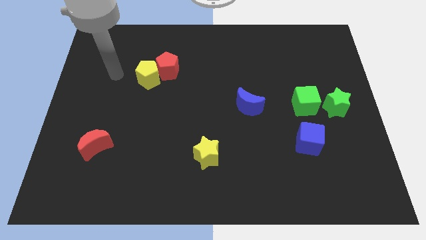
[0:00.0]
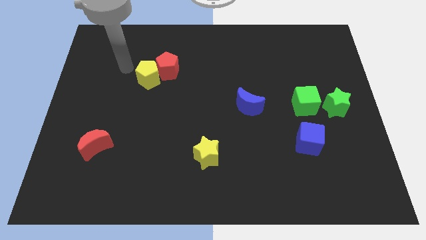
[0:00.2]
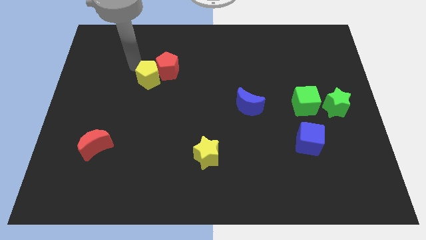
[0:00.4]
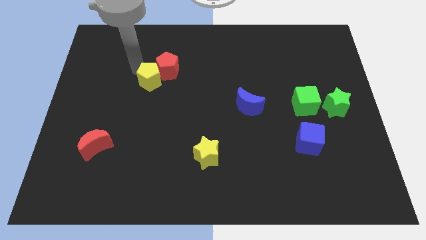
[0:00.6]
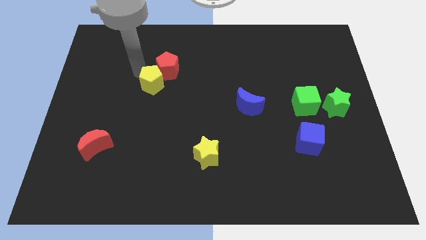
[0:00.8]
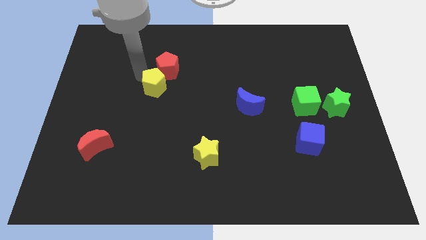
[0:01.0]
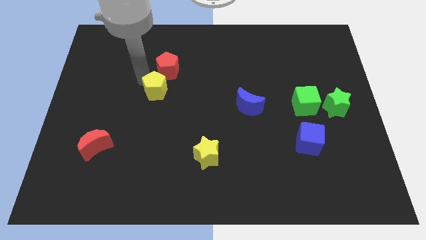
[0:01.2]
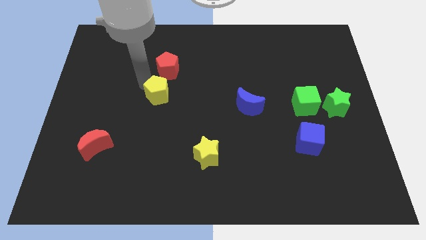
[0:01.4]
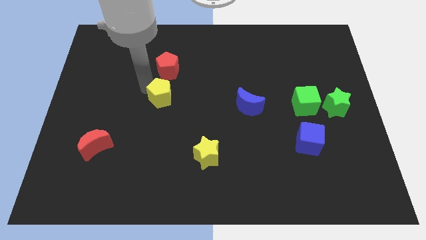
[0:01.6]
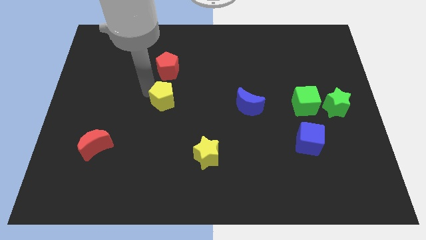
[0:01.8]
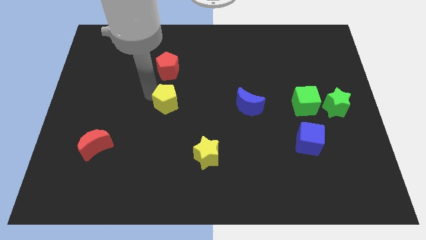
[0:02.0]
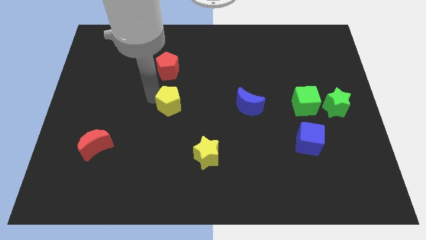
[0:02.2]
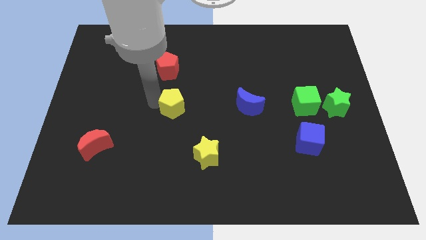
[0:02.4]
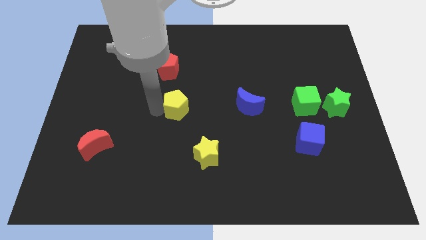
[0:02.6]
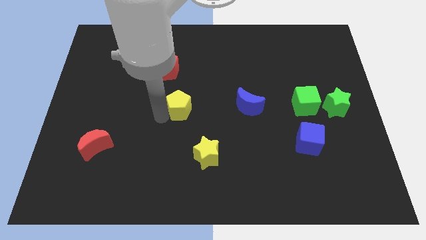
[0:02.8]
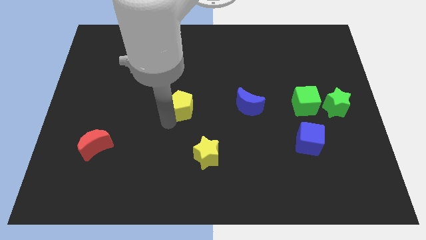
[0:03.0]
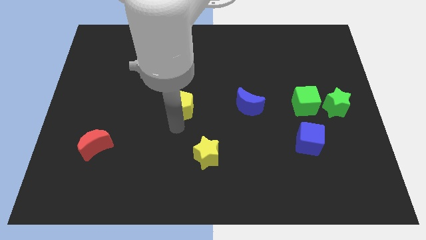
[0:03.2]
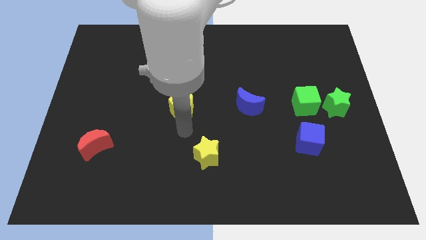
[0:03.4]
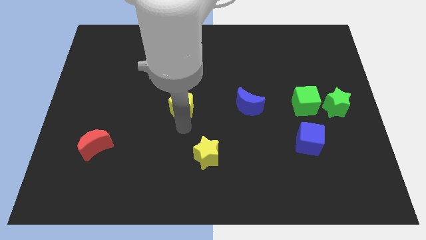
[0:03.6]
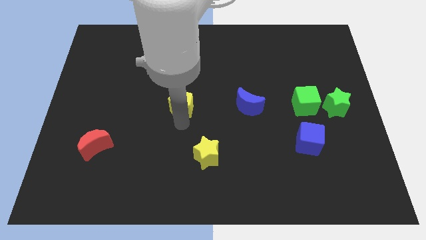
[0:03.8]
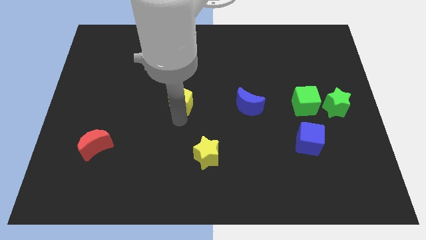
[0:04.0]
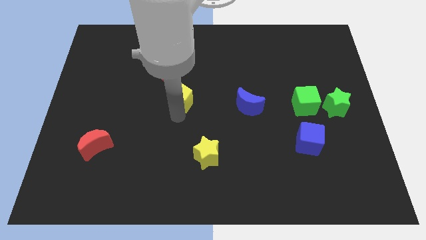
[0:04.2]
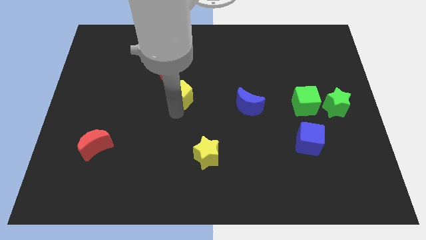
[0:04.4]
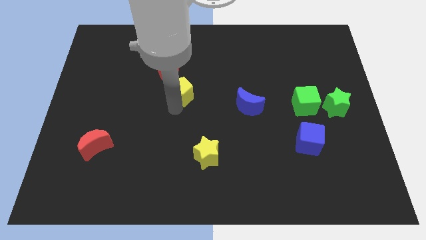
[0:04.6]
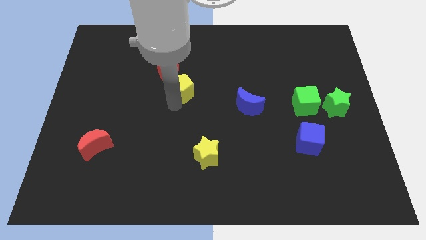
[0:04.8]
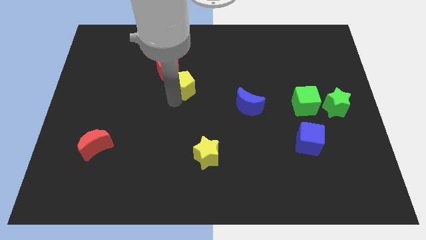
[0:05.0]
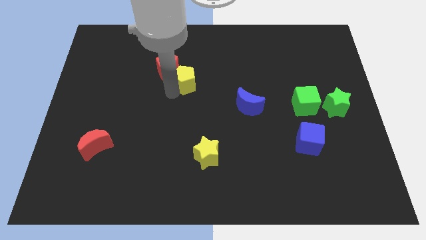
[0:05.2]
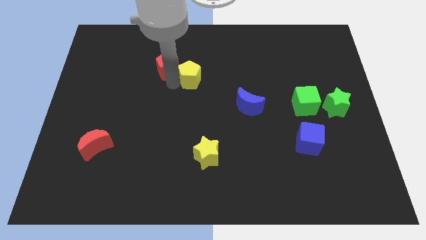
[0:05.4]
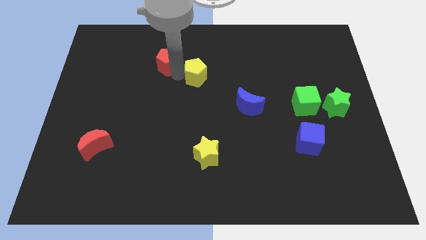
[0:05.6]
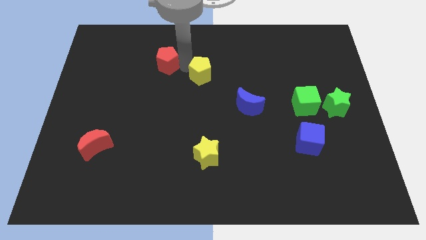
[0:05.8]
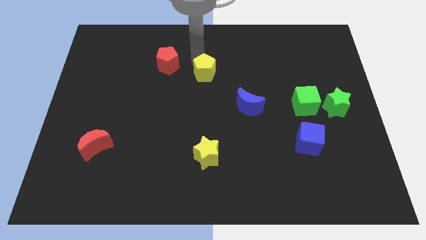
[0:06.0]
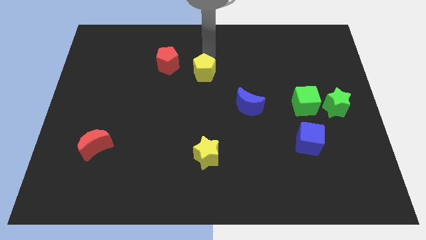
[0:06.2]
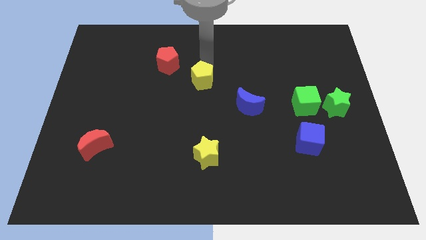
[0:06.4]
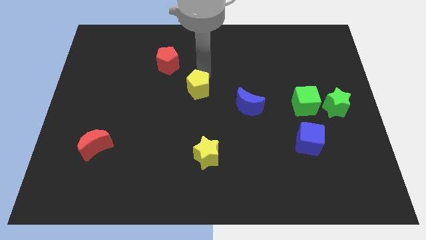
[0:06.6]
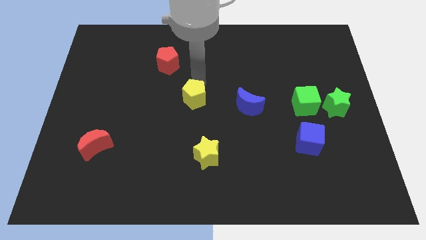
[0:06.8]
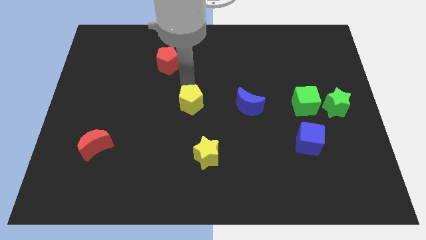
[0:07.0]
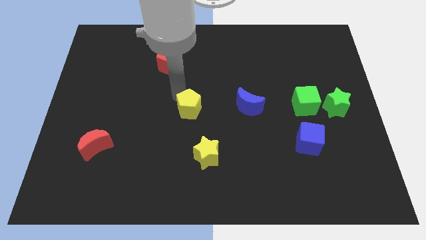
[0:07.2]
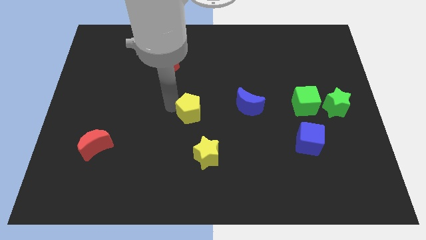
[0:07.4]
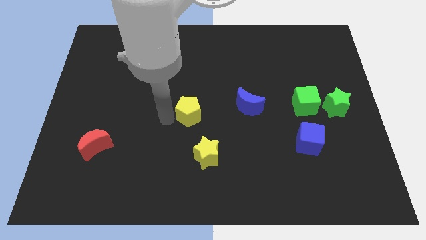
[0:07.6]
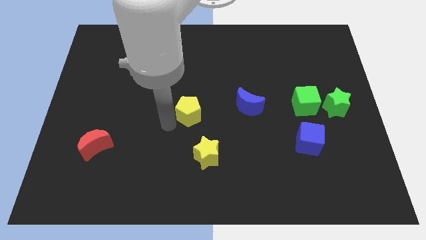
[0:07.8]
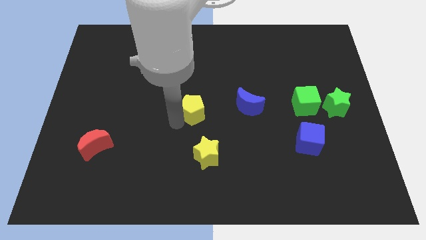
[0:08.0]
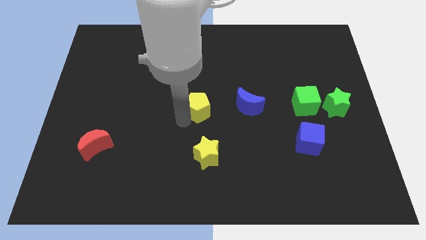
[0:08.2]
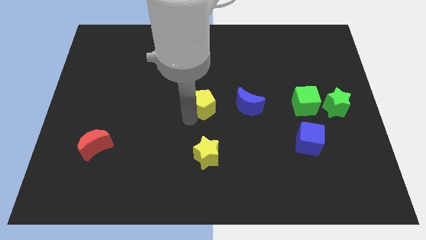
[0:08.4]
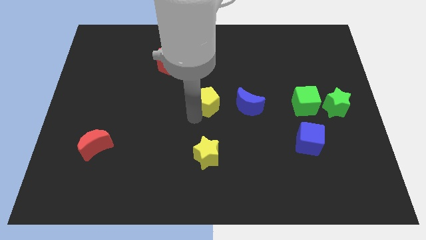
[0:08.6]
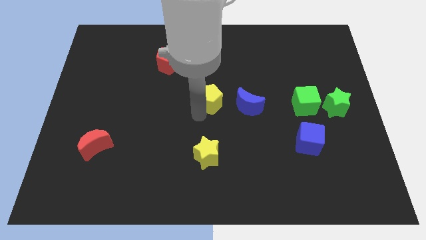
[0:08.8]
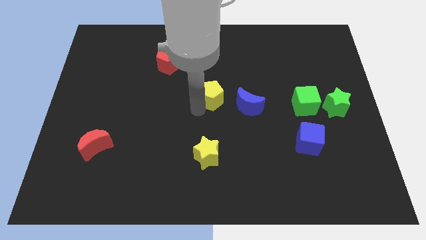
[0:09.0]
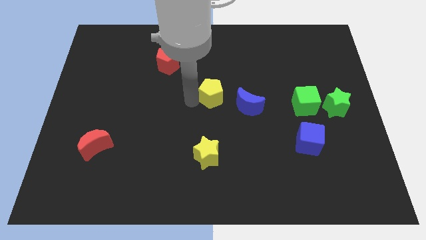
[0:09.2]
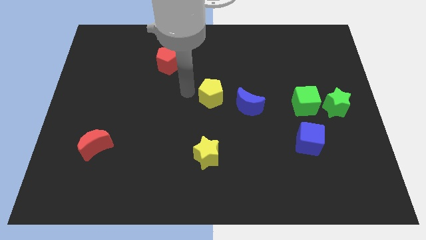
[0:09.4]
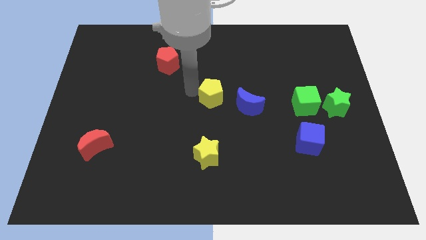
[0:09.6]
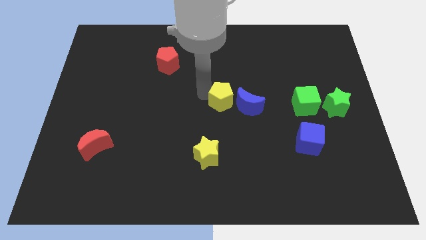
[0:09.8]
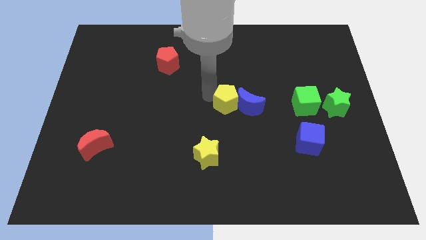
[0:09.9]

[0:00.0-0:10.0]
push the yellow pentagon close to the blue moon

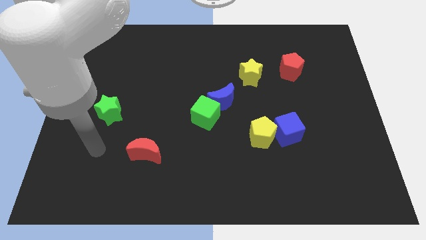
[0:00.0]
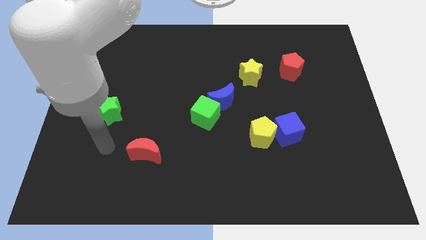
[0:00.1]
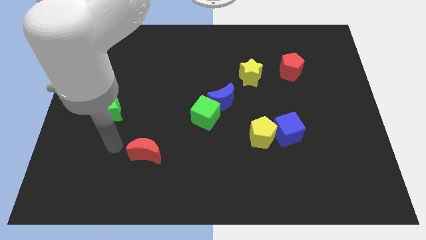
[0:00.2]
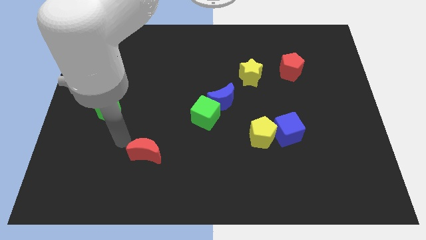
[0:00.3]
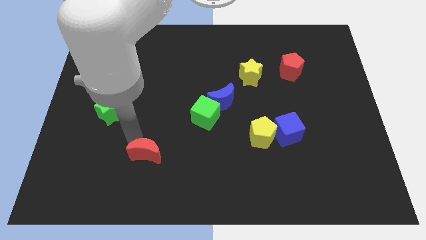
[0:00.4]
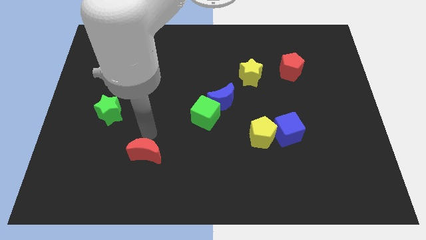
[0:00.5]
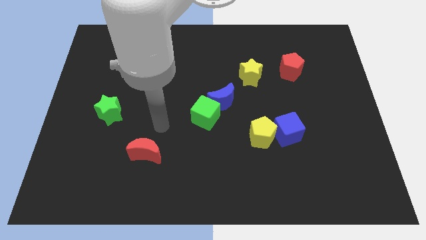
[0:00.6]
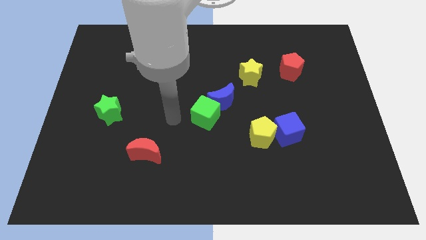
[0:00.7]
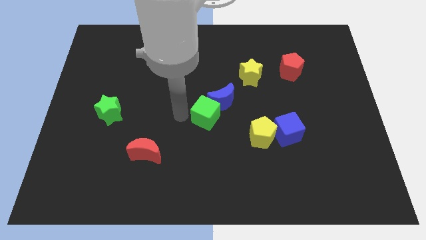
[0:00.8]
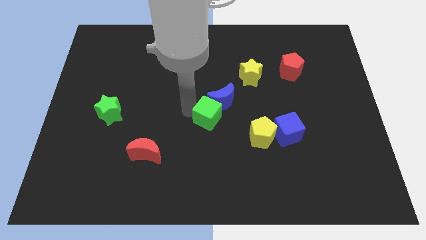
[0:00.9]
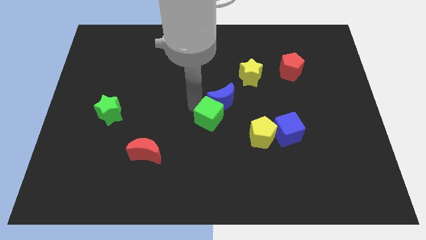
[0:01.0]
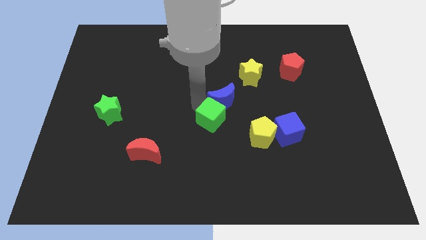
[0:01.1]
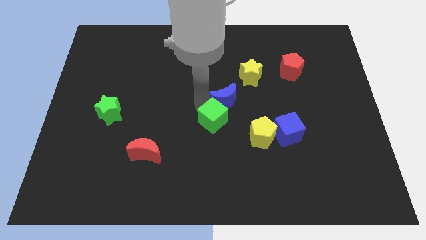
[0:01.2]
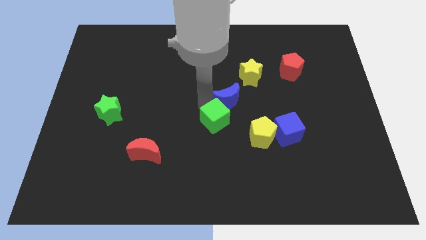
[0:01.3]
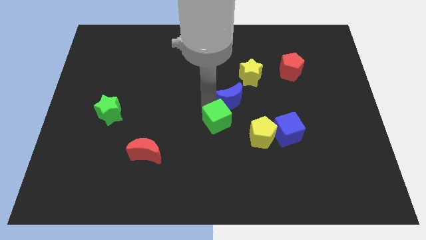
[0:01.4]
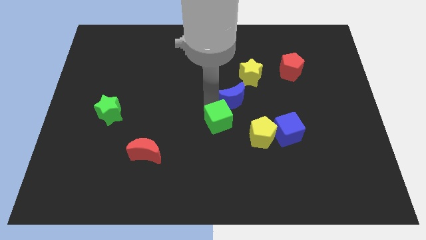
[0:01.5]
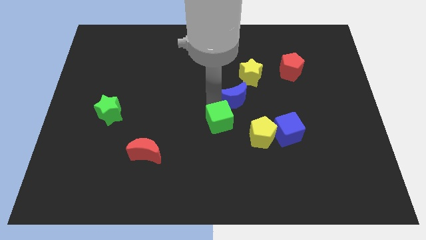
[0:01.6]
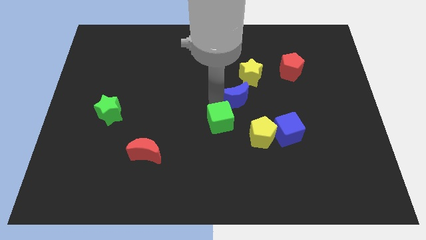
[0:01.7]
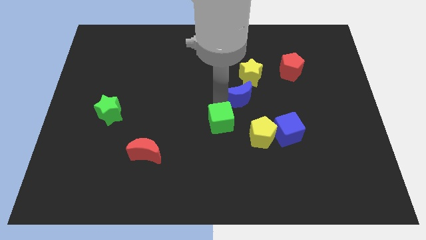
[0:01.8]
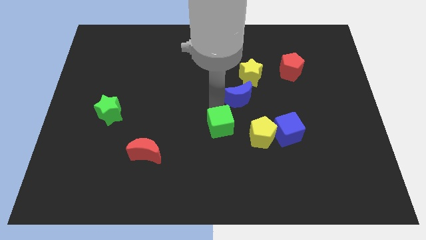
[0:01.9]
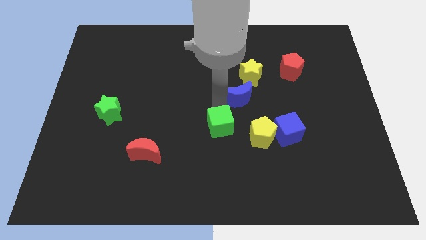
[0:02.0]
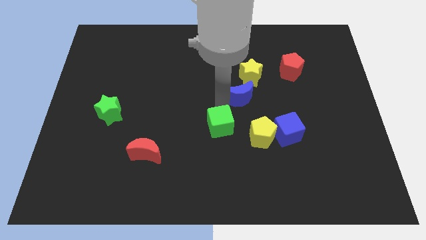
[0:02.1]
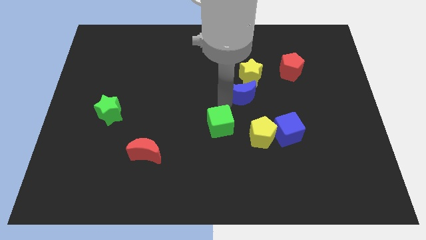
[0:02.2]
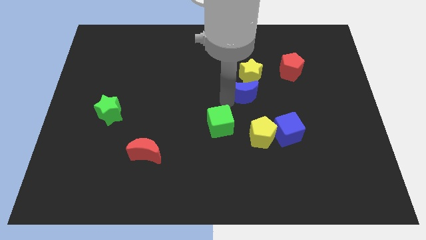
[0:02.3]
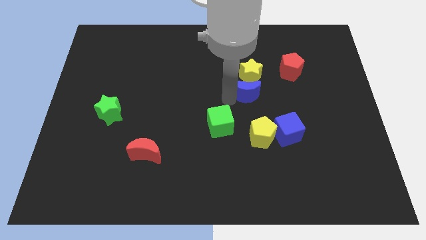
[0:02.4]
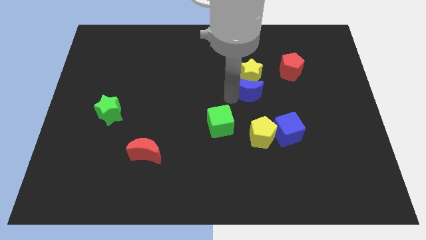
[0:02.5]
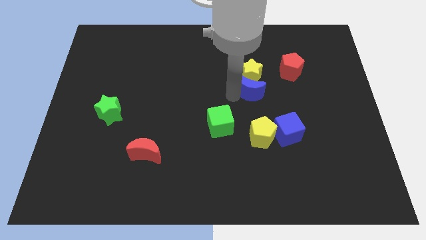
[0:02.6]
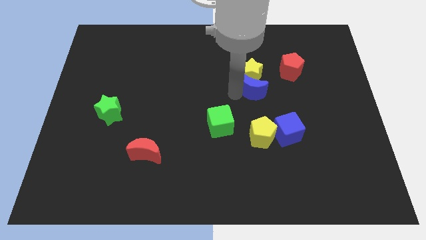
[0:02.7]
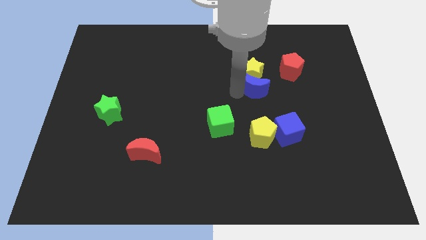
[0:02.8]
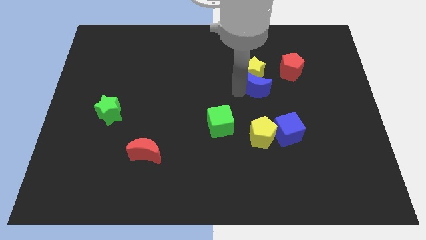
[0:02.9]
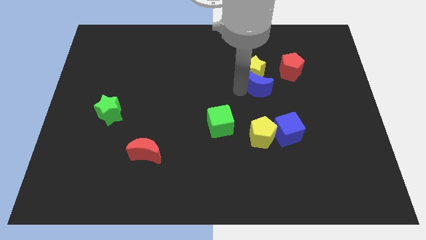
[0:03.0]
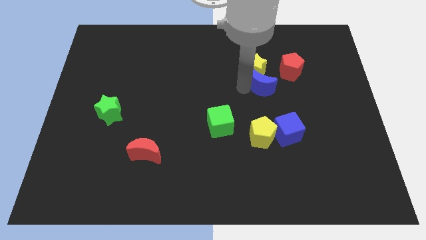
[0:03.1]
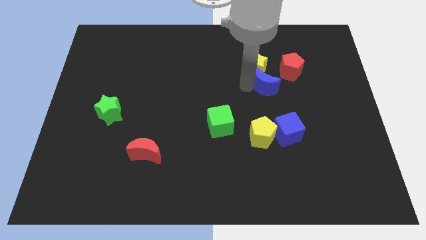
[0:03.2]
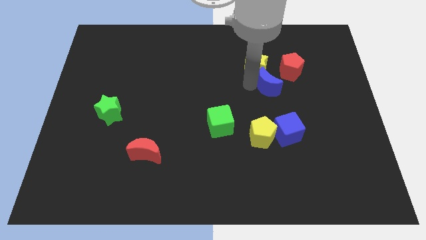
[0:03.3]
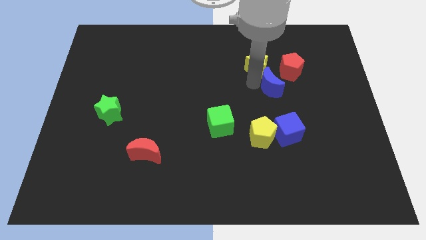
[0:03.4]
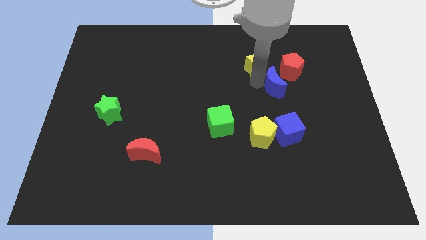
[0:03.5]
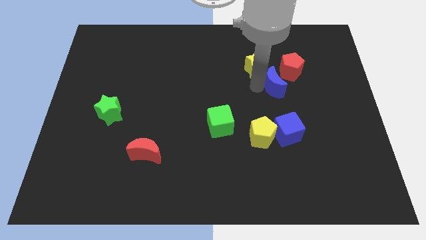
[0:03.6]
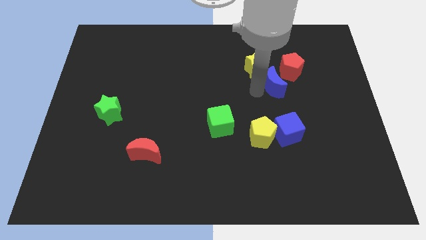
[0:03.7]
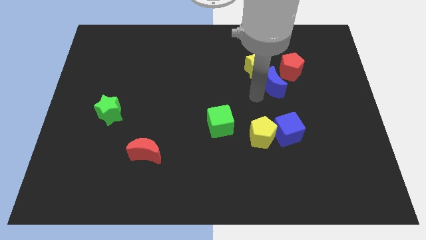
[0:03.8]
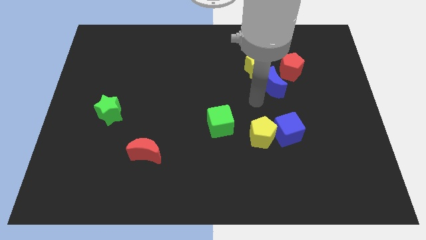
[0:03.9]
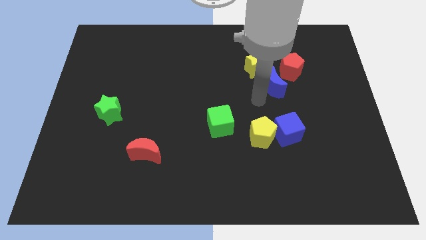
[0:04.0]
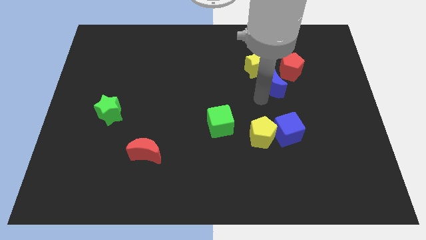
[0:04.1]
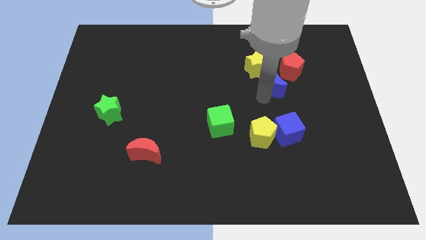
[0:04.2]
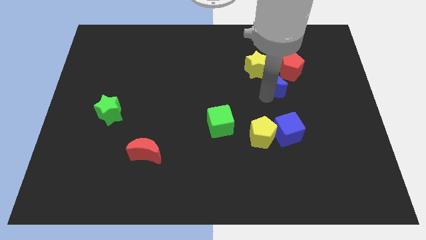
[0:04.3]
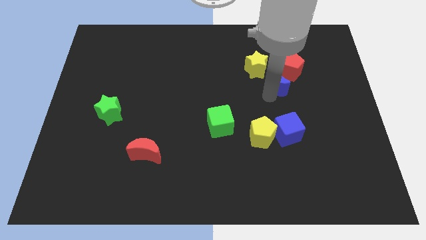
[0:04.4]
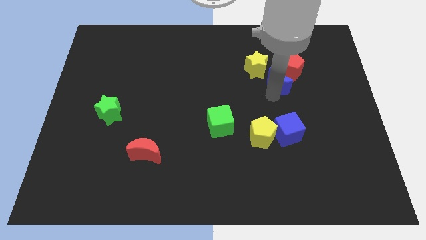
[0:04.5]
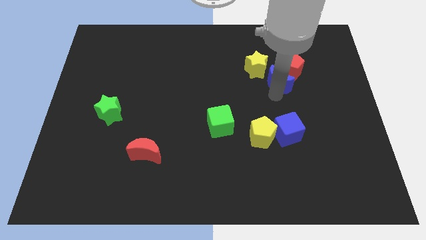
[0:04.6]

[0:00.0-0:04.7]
put the blue moon next to the red pentagon
